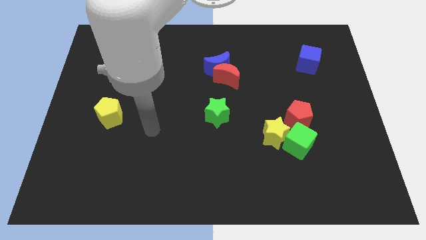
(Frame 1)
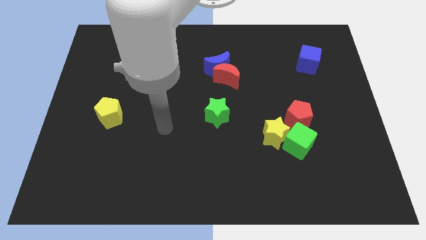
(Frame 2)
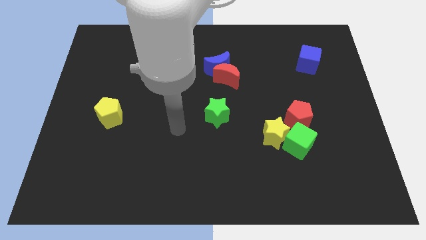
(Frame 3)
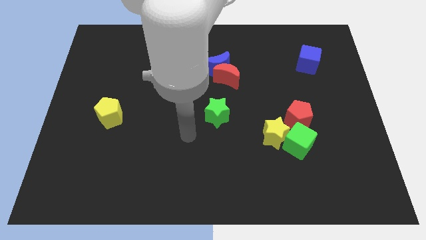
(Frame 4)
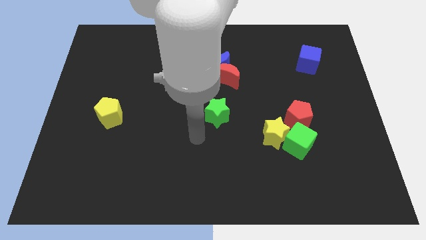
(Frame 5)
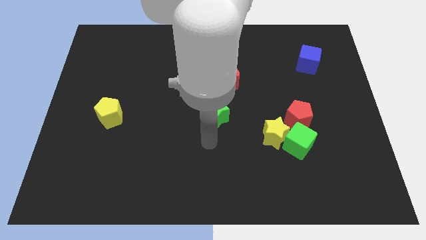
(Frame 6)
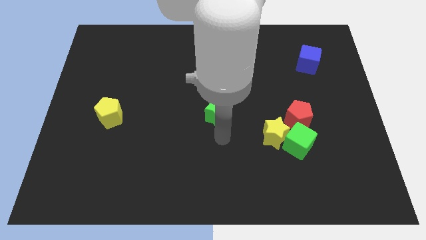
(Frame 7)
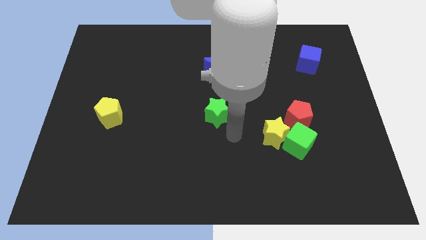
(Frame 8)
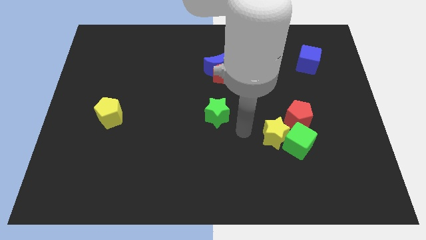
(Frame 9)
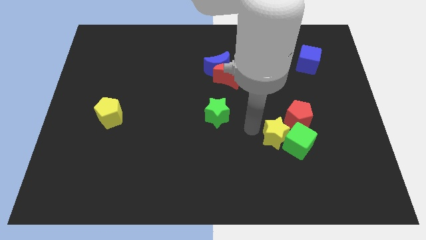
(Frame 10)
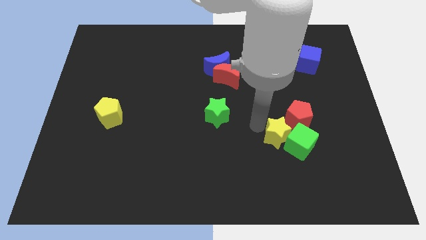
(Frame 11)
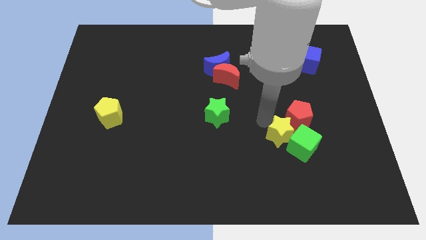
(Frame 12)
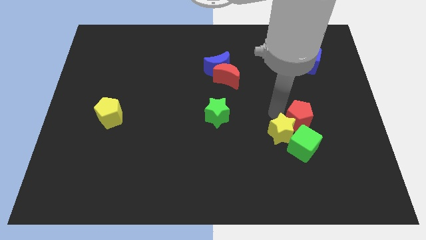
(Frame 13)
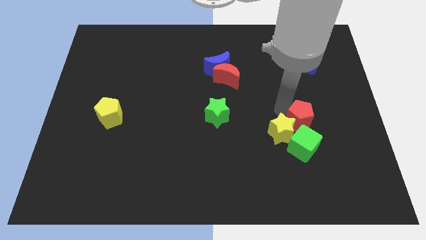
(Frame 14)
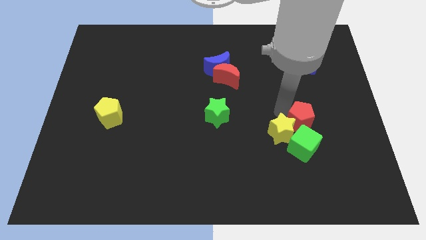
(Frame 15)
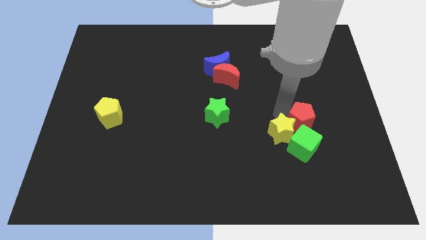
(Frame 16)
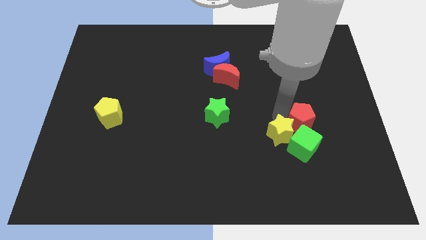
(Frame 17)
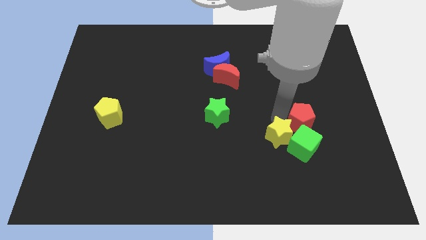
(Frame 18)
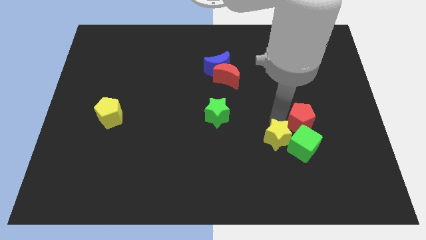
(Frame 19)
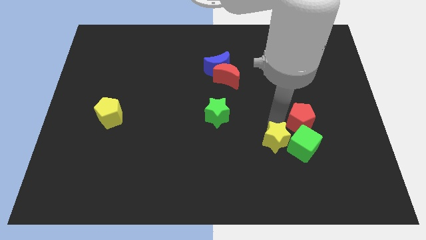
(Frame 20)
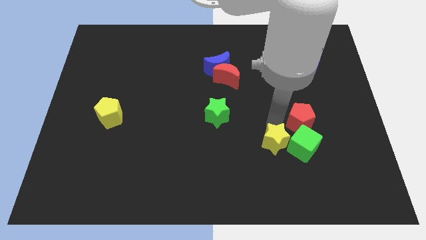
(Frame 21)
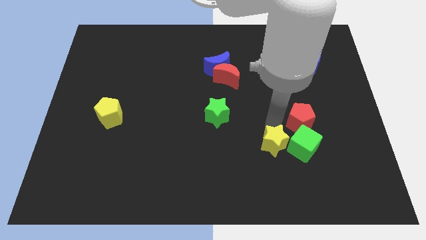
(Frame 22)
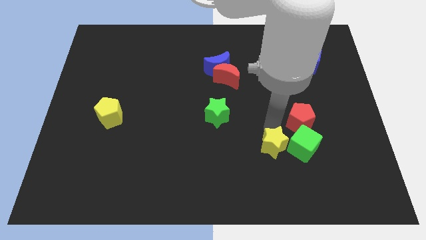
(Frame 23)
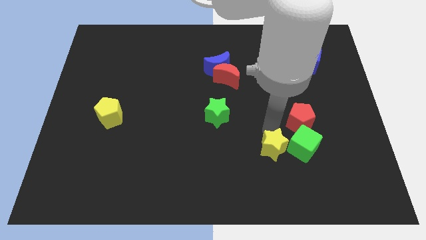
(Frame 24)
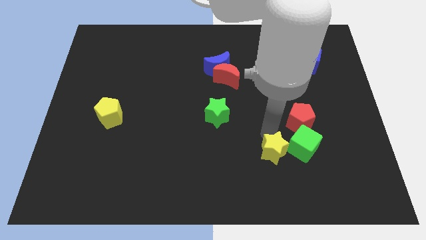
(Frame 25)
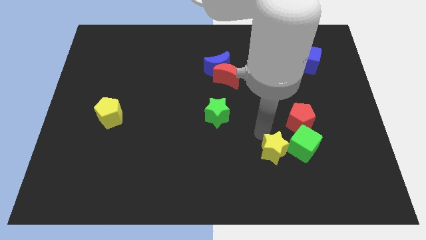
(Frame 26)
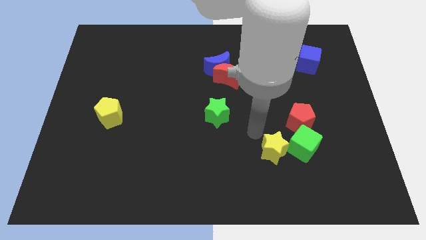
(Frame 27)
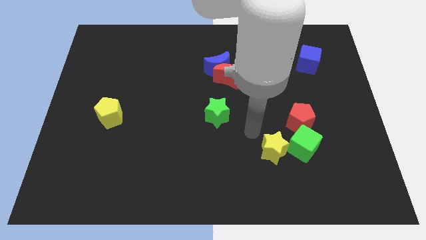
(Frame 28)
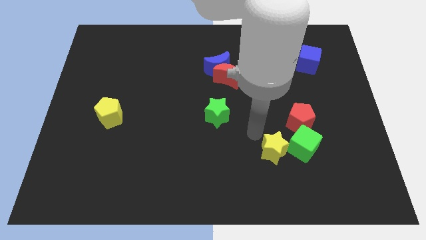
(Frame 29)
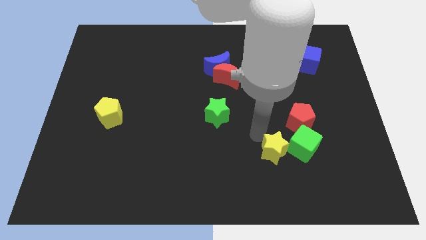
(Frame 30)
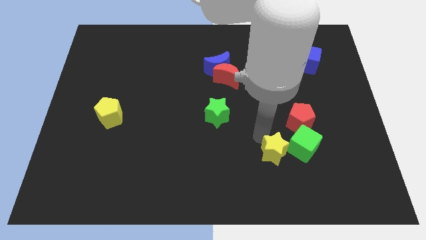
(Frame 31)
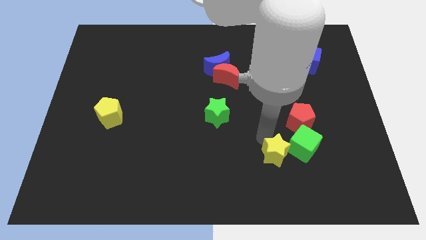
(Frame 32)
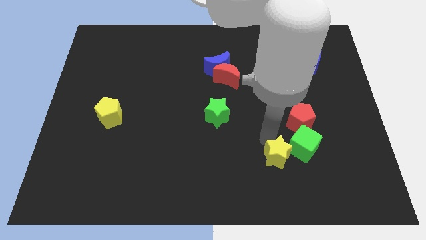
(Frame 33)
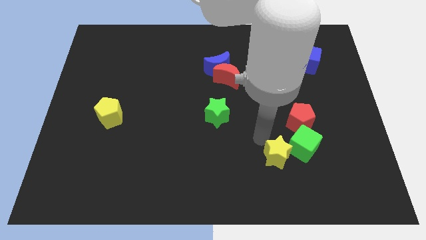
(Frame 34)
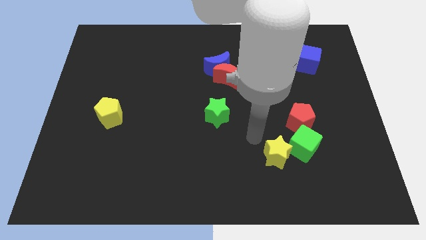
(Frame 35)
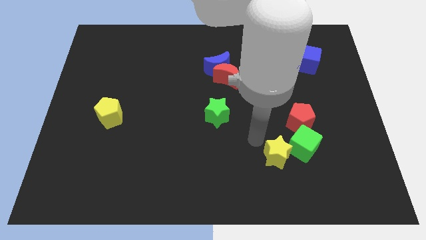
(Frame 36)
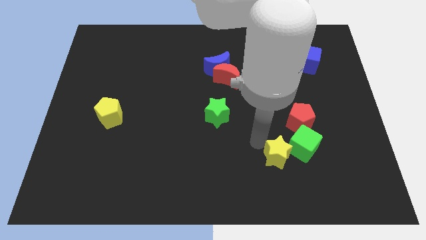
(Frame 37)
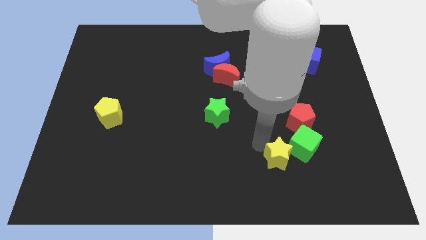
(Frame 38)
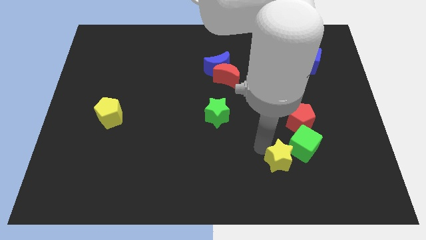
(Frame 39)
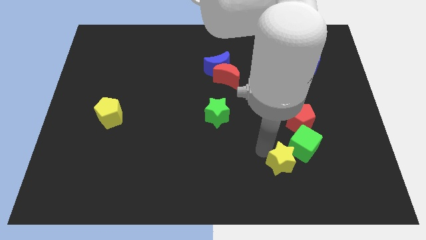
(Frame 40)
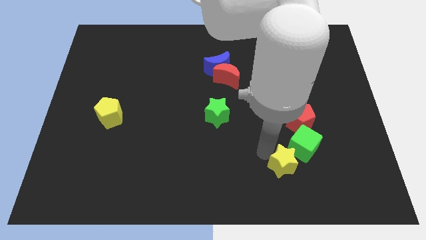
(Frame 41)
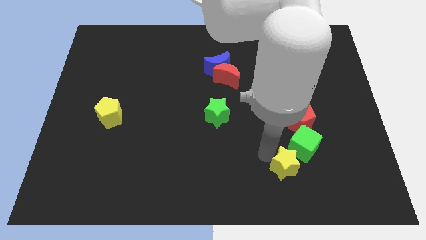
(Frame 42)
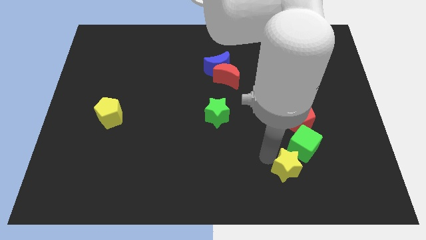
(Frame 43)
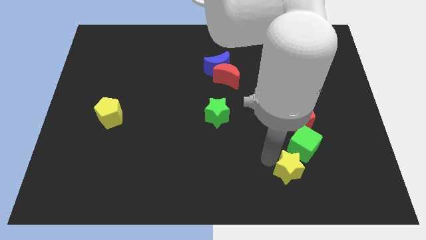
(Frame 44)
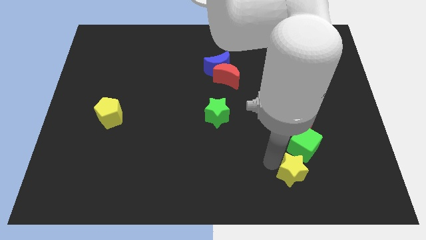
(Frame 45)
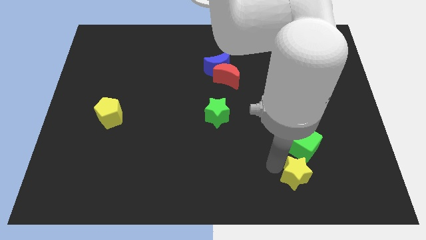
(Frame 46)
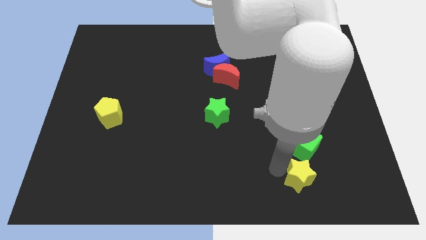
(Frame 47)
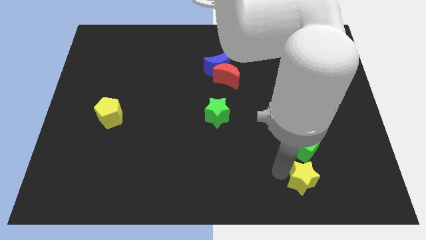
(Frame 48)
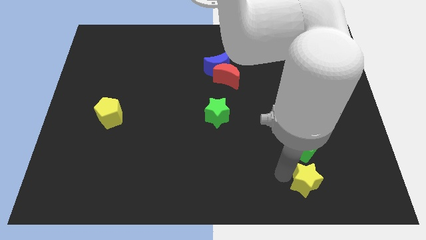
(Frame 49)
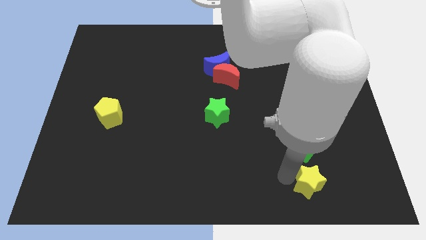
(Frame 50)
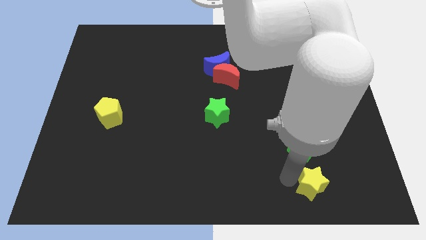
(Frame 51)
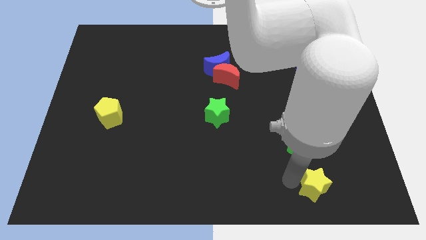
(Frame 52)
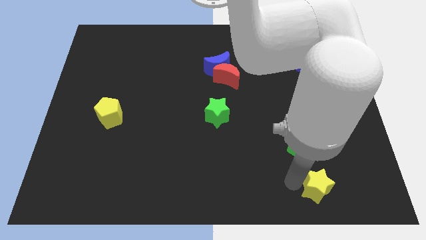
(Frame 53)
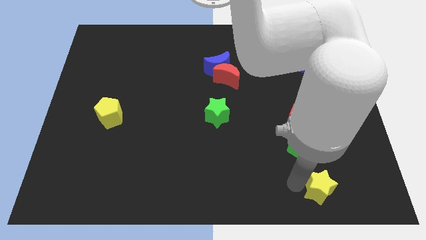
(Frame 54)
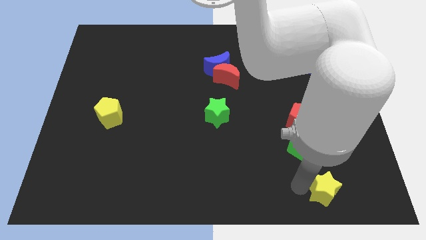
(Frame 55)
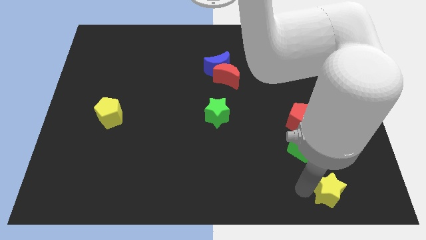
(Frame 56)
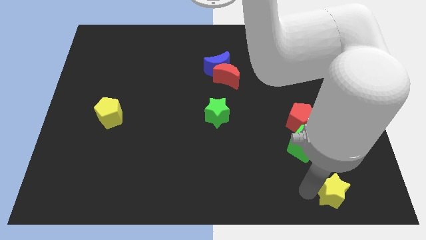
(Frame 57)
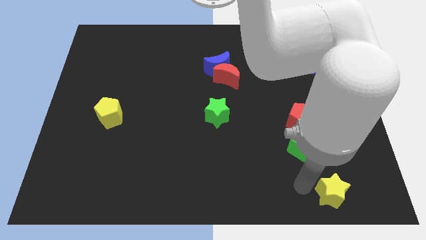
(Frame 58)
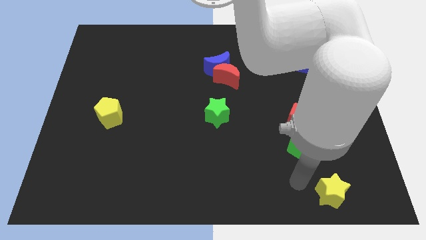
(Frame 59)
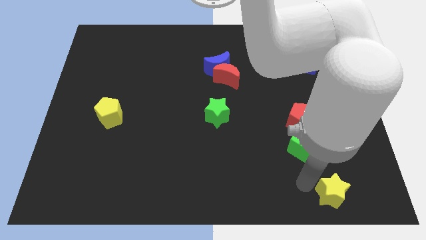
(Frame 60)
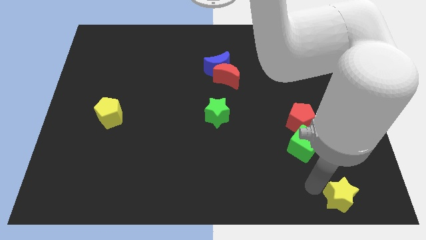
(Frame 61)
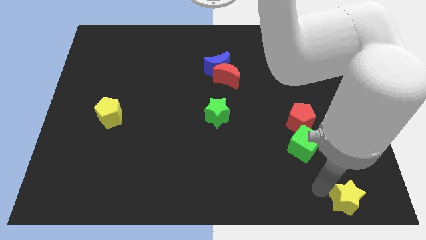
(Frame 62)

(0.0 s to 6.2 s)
move the yellow star to the bottom right

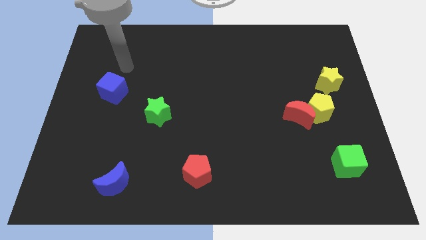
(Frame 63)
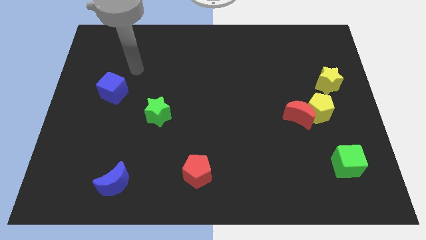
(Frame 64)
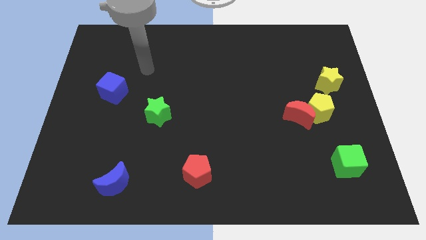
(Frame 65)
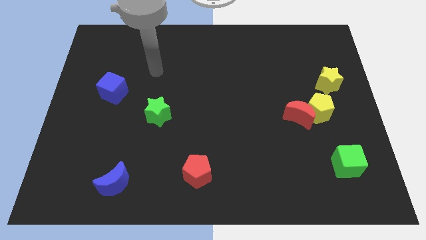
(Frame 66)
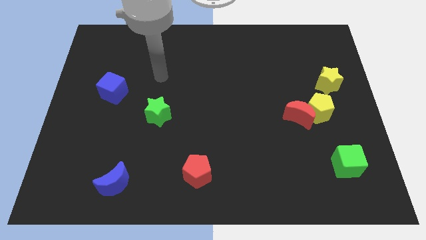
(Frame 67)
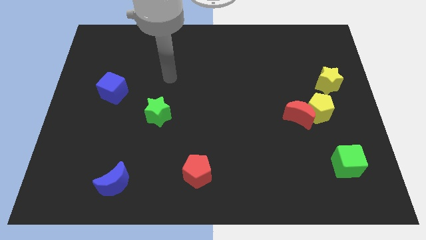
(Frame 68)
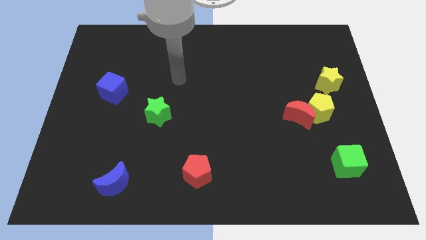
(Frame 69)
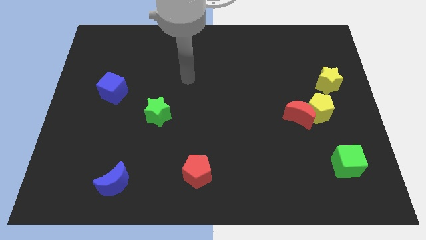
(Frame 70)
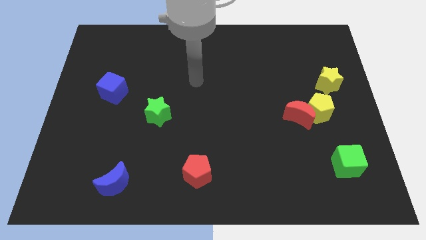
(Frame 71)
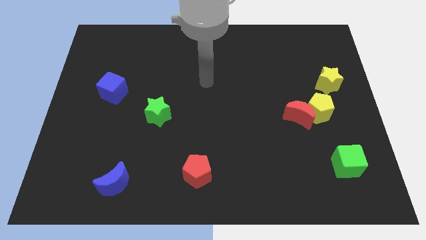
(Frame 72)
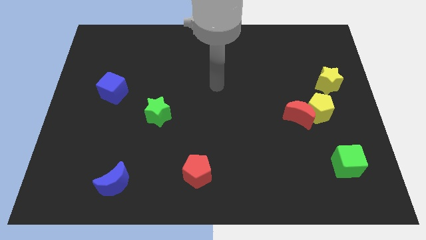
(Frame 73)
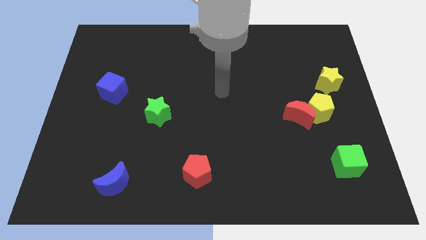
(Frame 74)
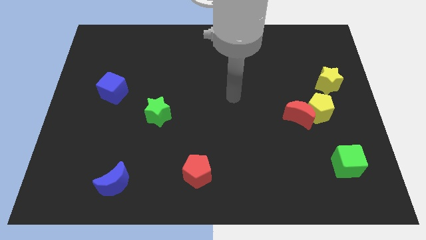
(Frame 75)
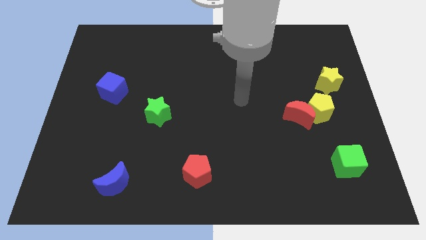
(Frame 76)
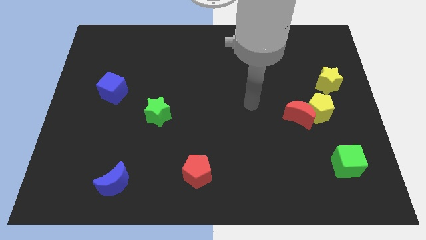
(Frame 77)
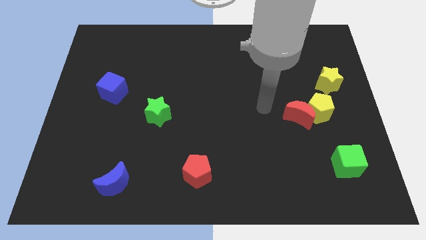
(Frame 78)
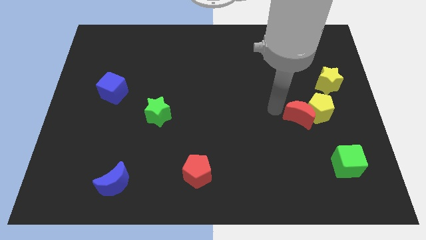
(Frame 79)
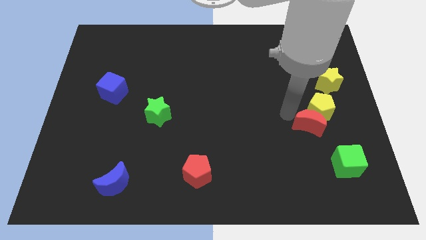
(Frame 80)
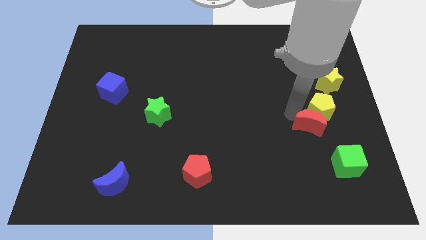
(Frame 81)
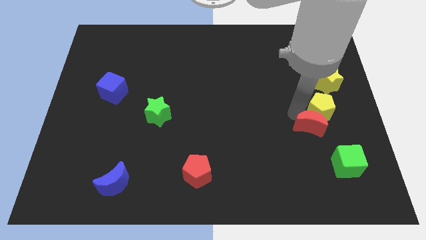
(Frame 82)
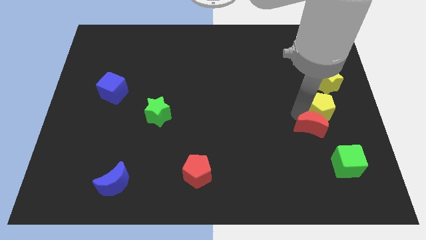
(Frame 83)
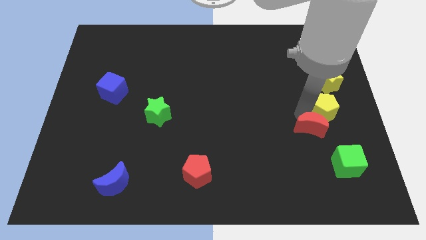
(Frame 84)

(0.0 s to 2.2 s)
put the yellow pentagon to the right side
